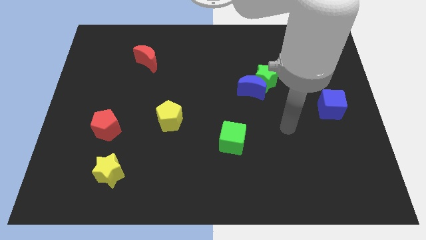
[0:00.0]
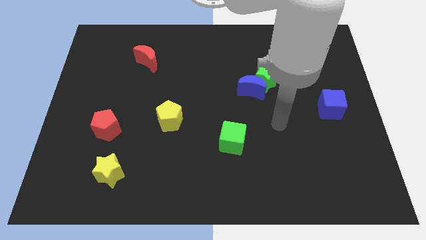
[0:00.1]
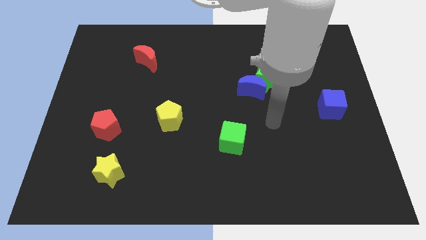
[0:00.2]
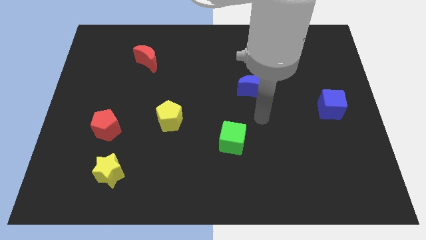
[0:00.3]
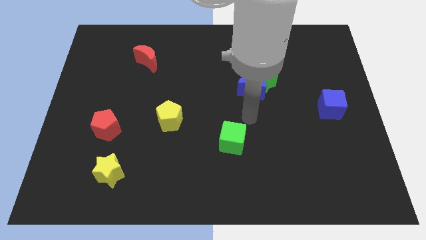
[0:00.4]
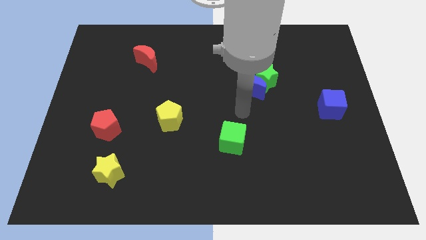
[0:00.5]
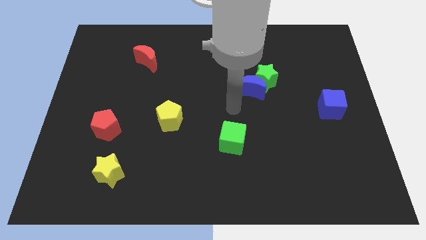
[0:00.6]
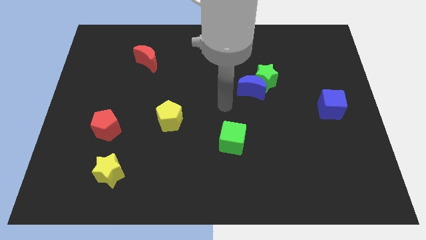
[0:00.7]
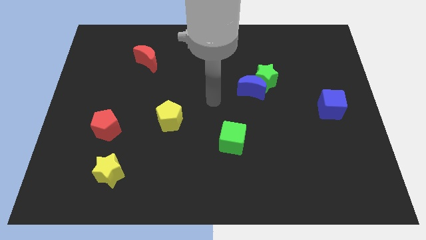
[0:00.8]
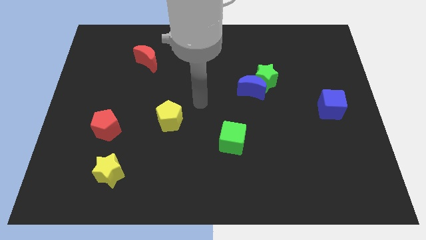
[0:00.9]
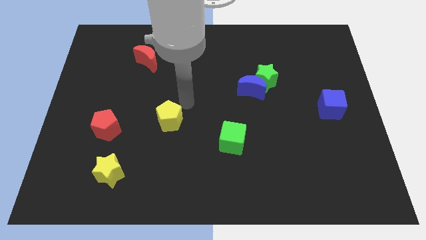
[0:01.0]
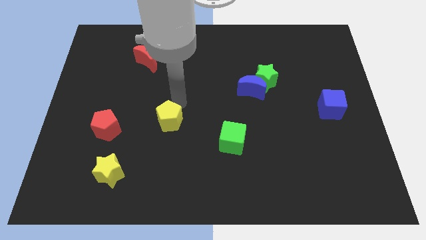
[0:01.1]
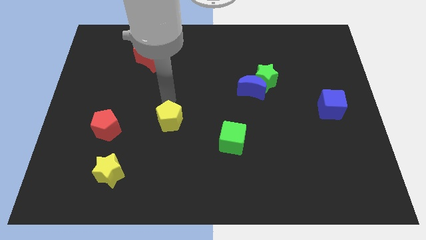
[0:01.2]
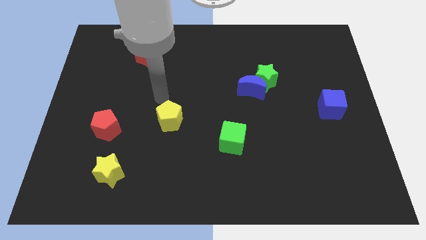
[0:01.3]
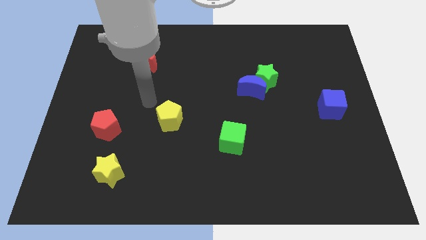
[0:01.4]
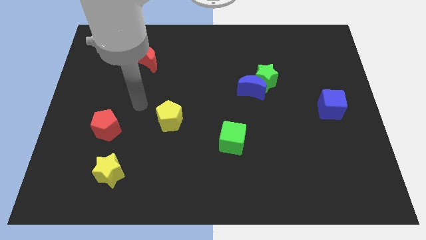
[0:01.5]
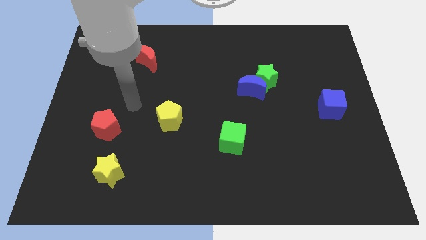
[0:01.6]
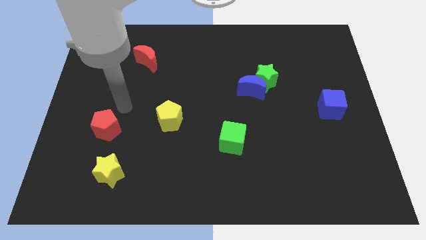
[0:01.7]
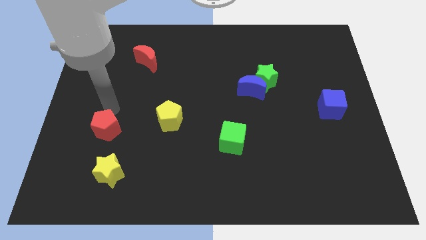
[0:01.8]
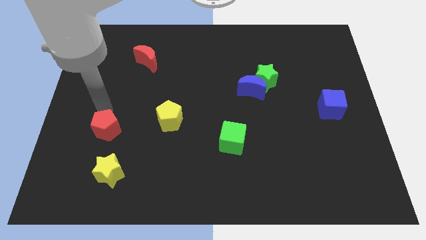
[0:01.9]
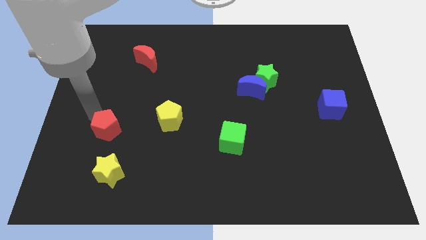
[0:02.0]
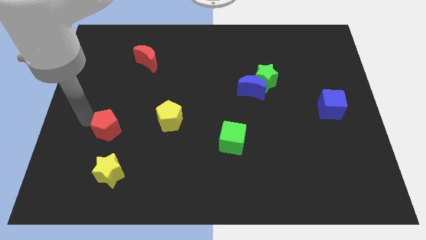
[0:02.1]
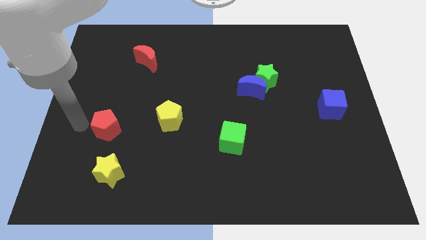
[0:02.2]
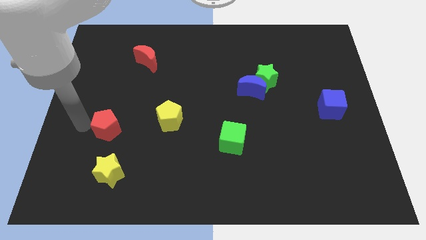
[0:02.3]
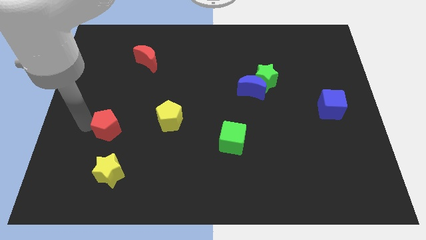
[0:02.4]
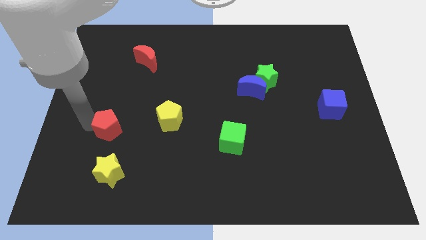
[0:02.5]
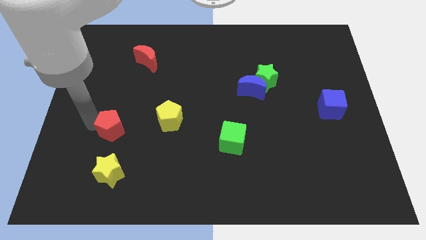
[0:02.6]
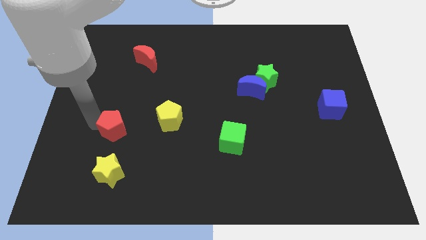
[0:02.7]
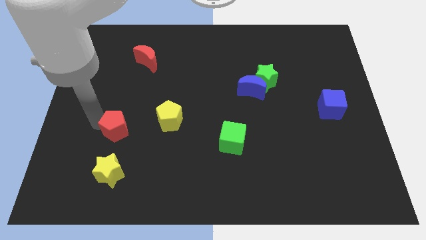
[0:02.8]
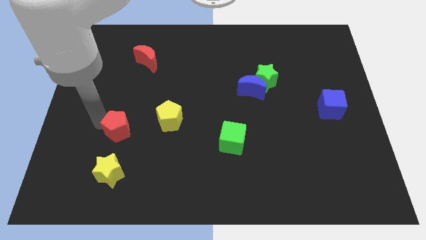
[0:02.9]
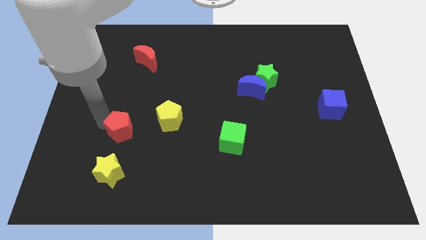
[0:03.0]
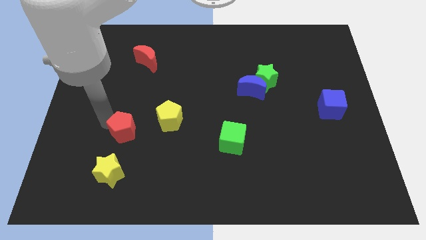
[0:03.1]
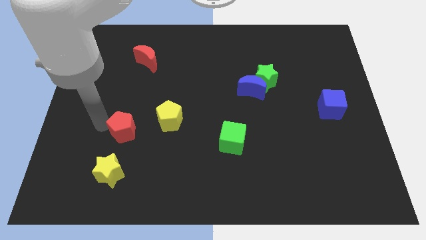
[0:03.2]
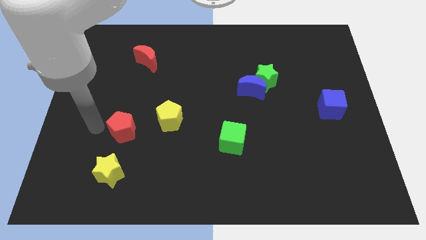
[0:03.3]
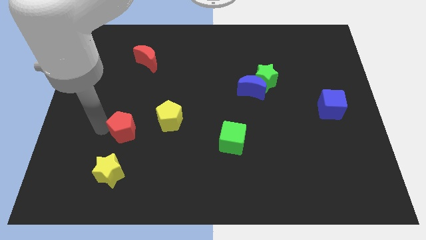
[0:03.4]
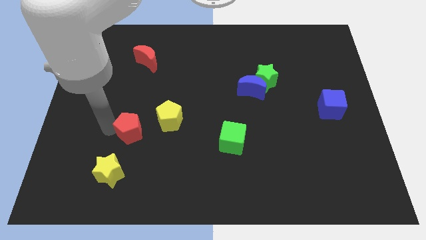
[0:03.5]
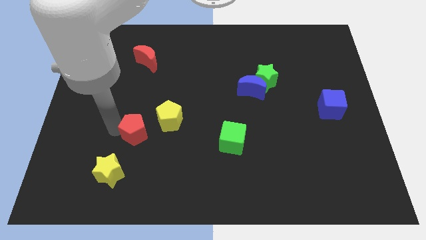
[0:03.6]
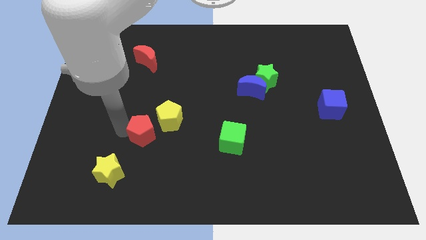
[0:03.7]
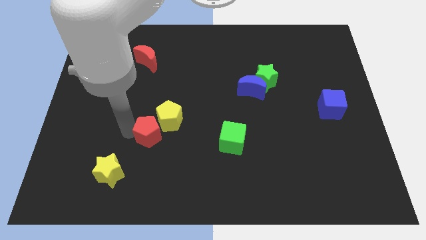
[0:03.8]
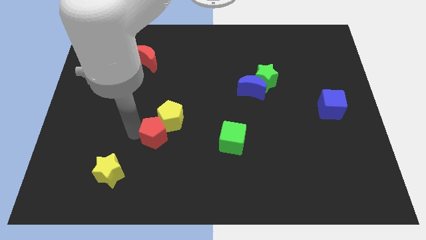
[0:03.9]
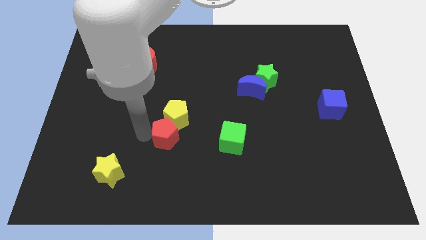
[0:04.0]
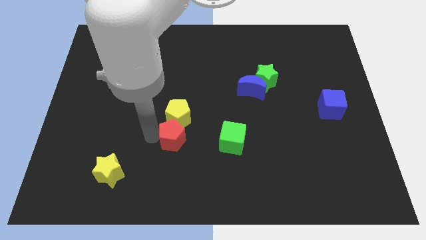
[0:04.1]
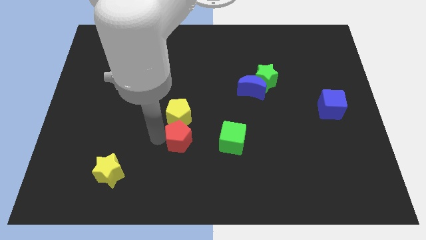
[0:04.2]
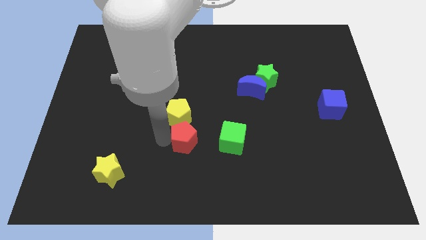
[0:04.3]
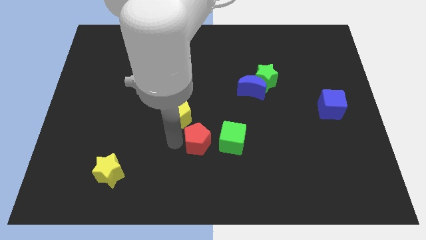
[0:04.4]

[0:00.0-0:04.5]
push the red pentagon right

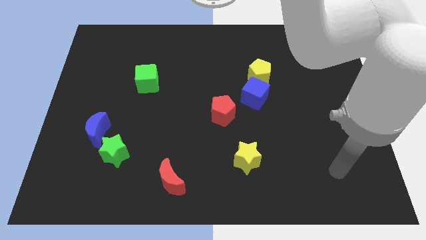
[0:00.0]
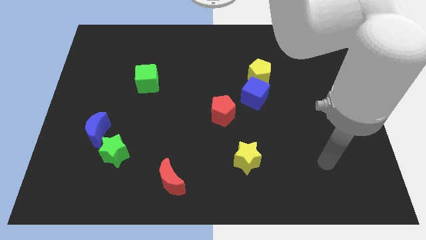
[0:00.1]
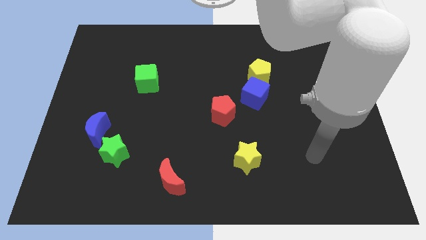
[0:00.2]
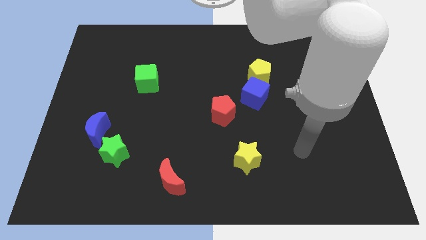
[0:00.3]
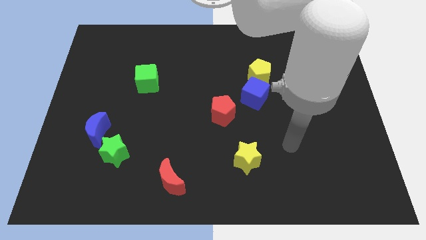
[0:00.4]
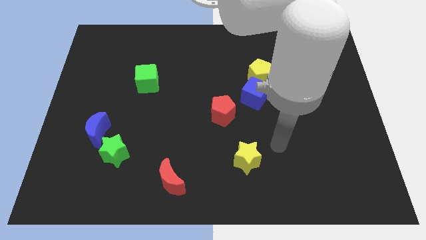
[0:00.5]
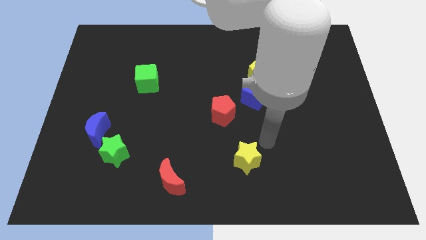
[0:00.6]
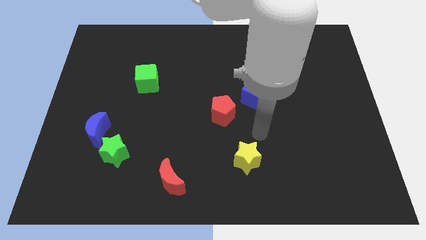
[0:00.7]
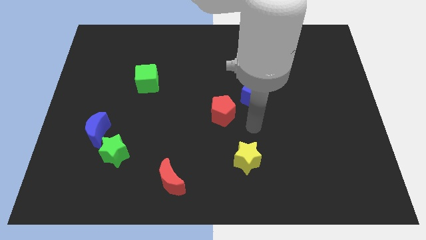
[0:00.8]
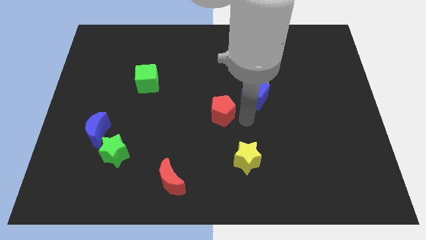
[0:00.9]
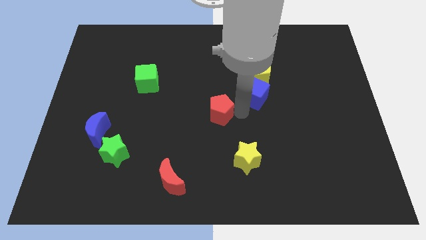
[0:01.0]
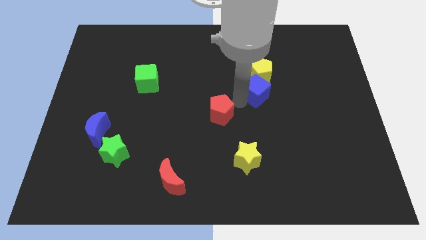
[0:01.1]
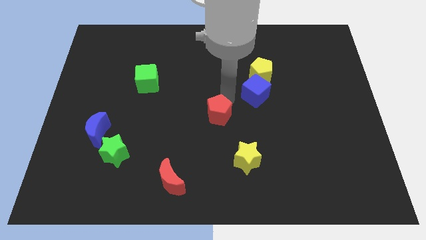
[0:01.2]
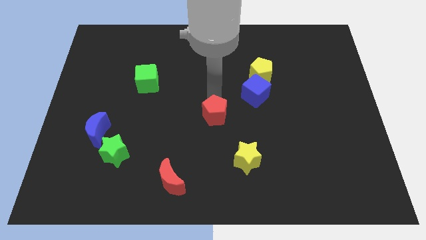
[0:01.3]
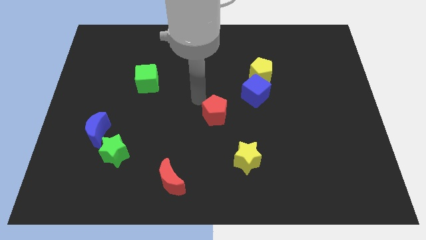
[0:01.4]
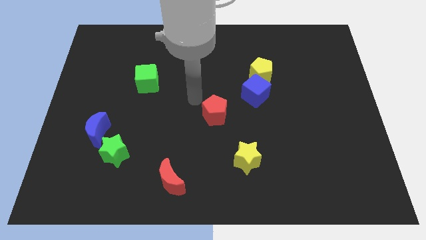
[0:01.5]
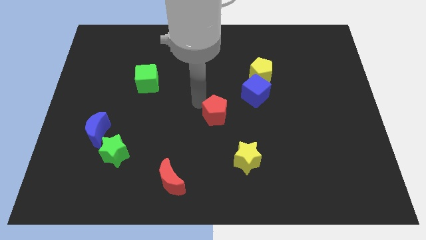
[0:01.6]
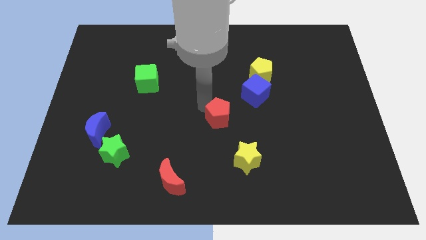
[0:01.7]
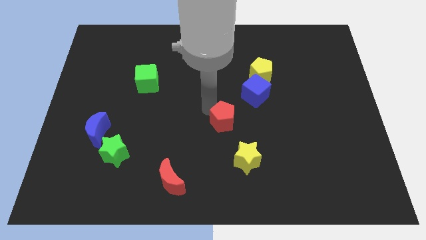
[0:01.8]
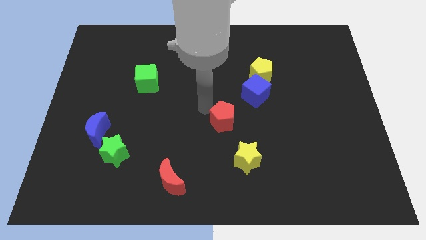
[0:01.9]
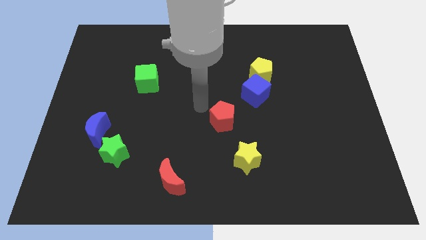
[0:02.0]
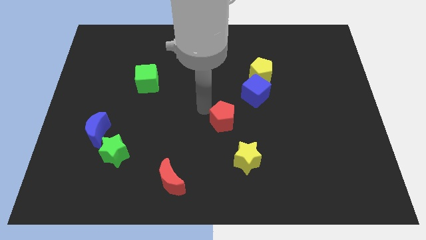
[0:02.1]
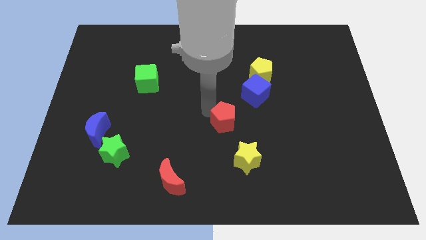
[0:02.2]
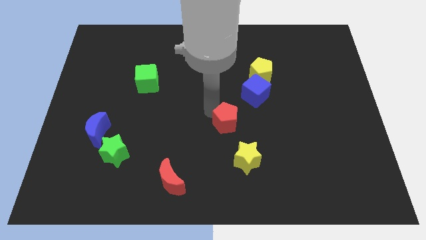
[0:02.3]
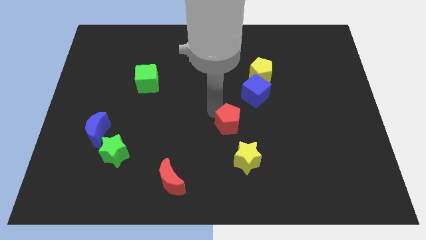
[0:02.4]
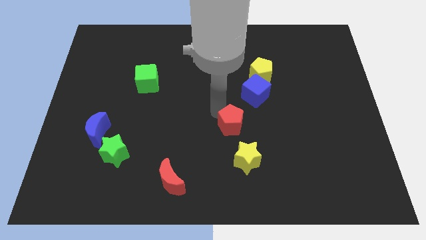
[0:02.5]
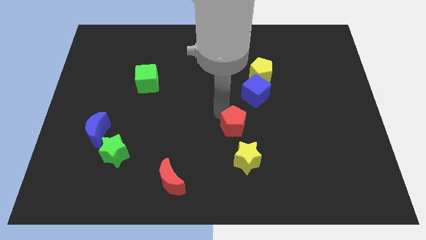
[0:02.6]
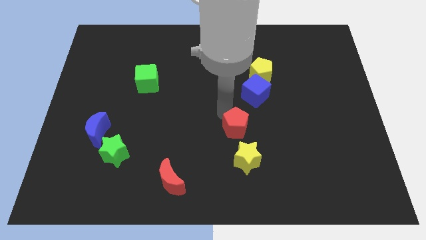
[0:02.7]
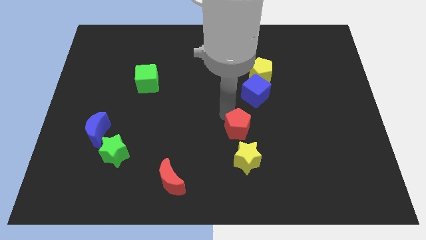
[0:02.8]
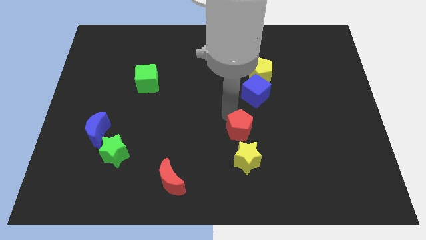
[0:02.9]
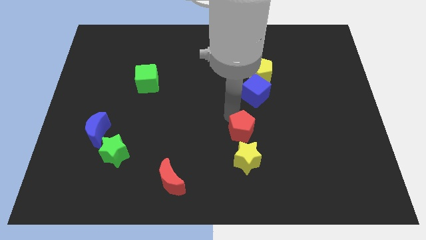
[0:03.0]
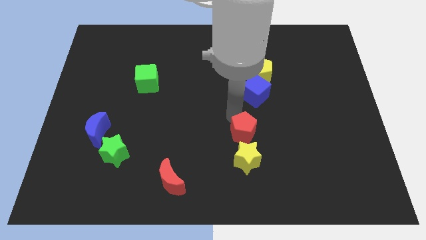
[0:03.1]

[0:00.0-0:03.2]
slide the red pentagon somewhat diagonally downwards and right

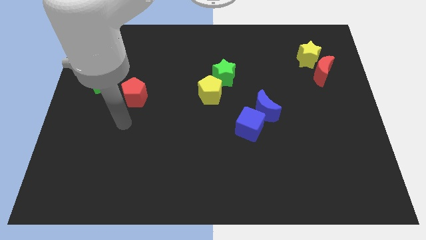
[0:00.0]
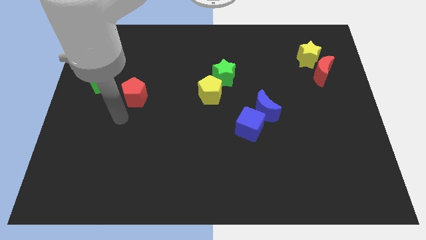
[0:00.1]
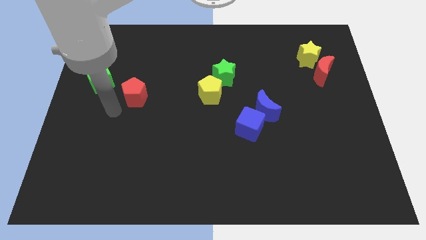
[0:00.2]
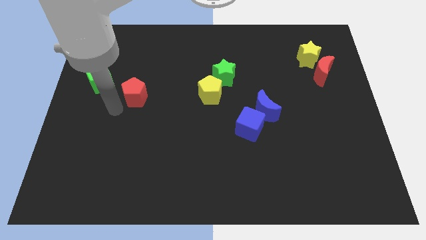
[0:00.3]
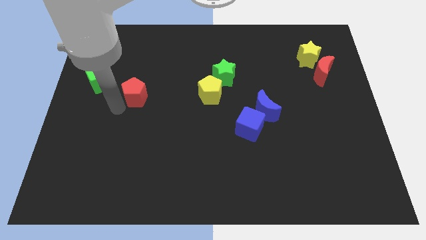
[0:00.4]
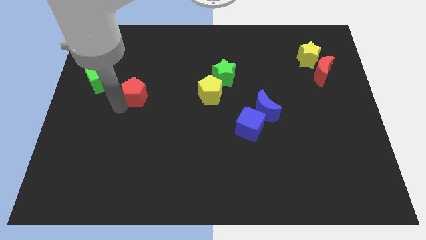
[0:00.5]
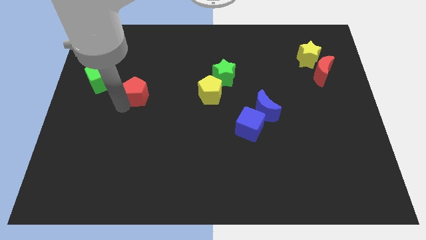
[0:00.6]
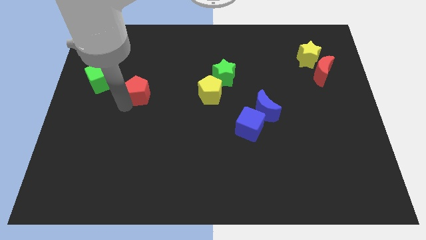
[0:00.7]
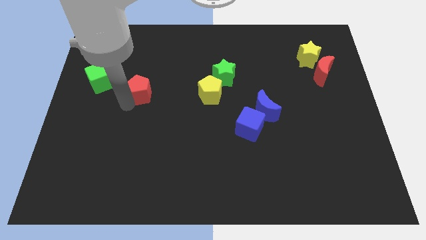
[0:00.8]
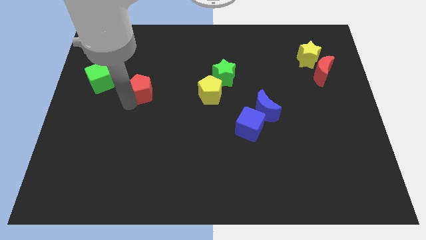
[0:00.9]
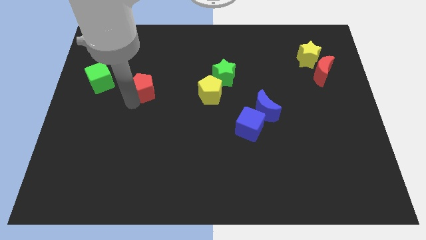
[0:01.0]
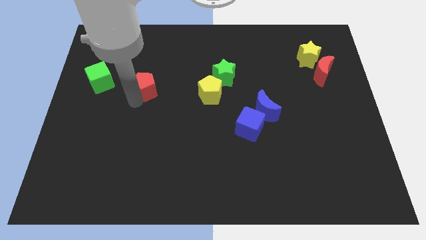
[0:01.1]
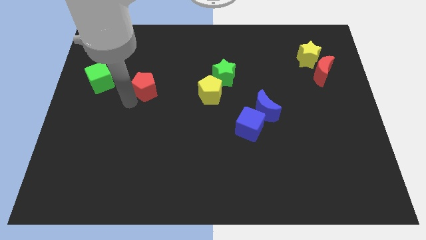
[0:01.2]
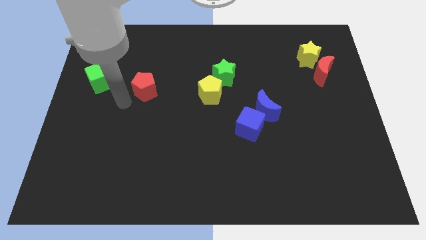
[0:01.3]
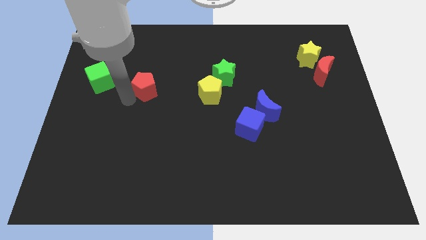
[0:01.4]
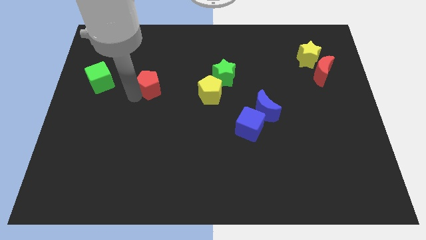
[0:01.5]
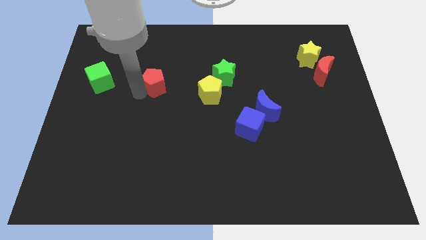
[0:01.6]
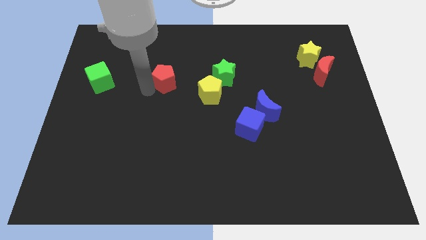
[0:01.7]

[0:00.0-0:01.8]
slightly push the red pentagon upwards and then right
